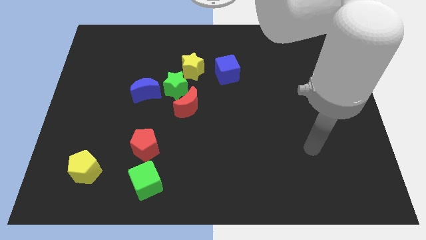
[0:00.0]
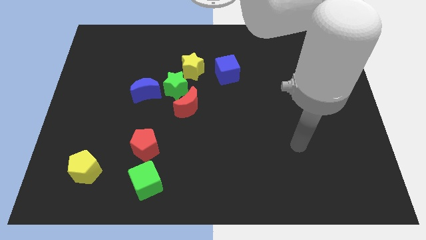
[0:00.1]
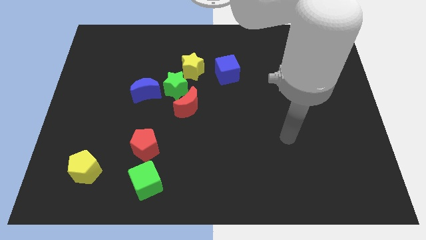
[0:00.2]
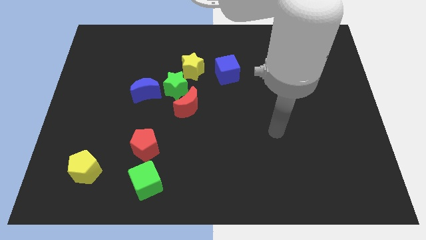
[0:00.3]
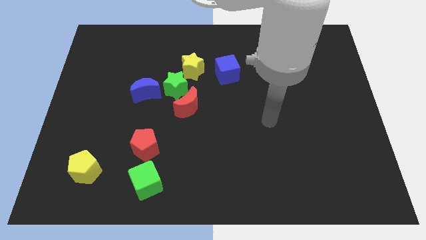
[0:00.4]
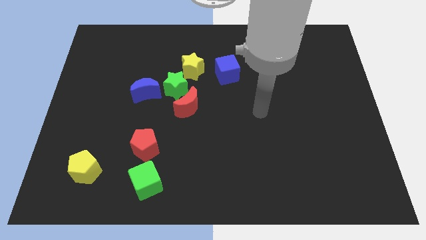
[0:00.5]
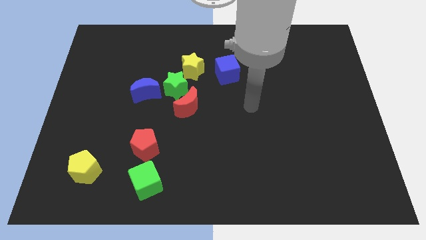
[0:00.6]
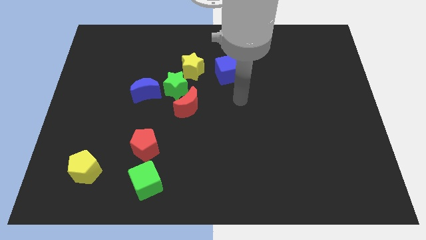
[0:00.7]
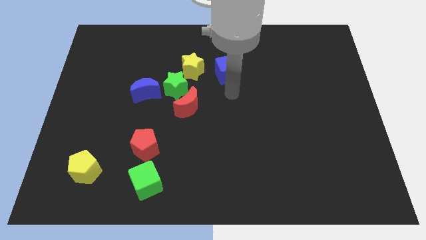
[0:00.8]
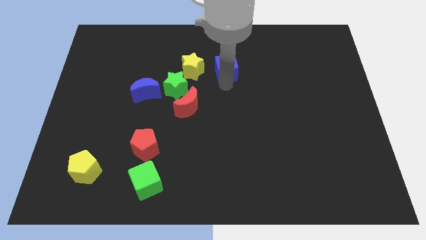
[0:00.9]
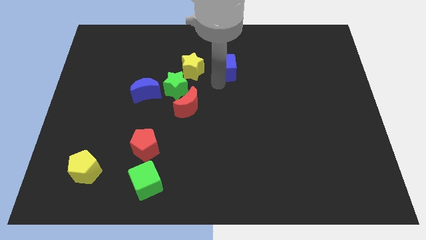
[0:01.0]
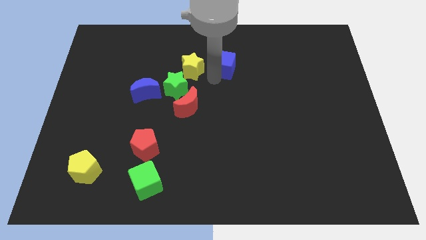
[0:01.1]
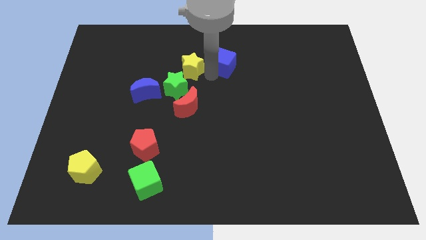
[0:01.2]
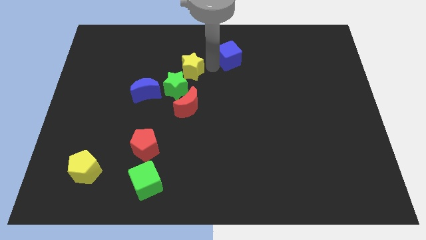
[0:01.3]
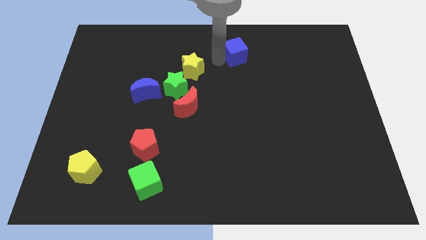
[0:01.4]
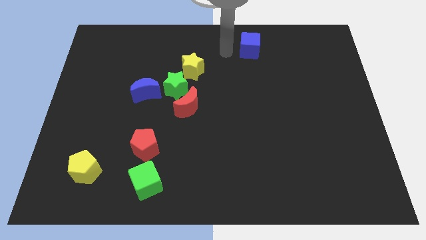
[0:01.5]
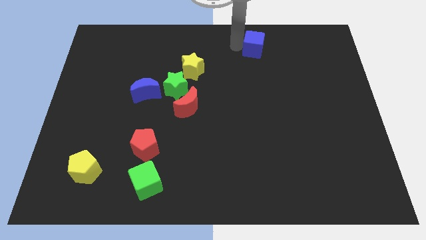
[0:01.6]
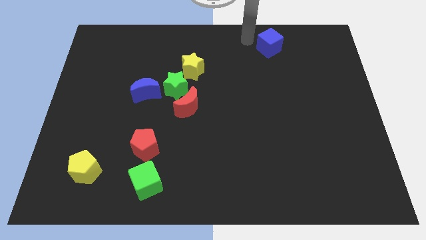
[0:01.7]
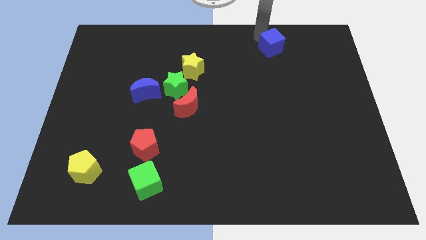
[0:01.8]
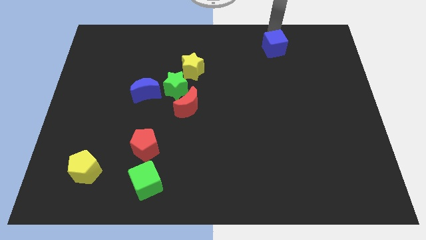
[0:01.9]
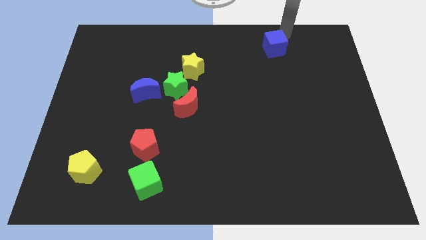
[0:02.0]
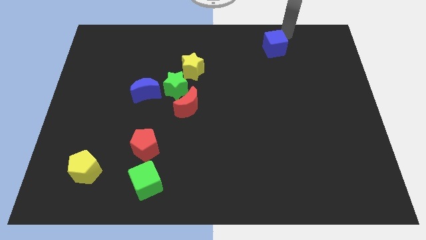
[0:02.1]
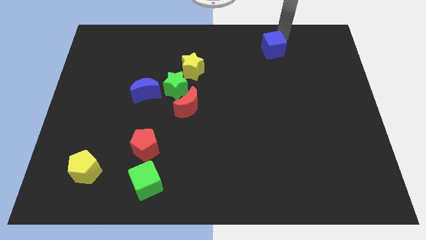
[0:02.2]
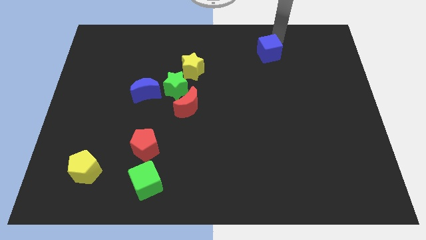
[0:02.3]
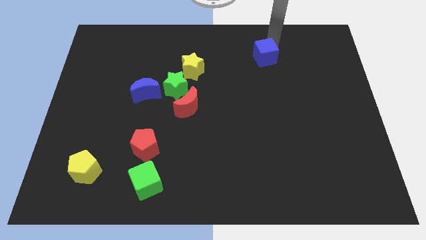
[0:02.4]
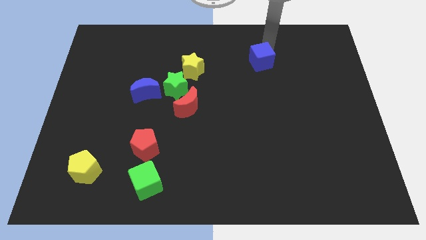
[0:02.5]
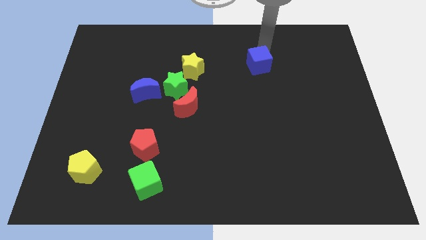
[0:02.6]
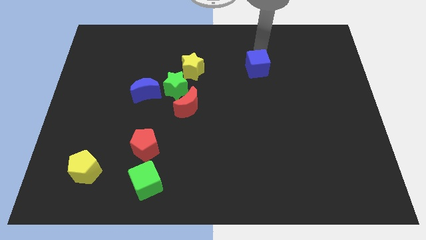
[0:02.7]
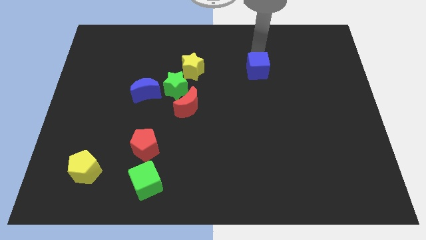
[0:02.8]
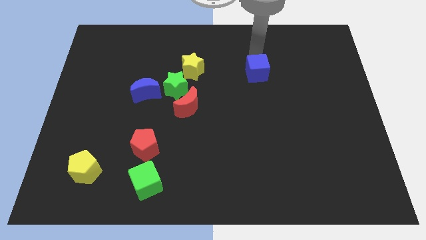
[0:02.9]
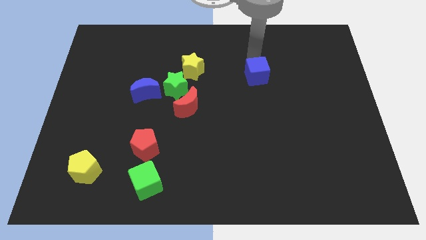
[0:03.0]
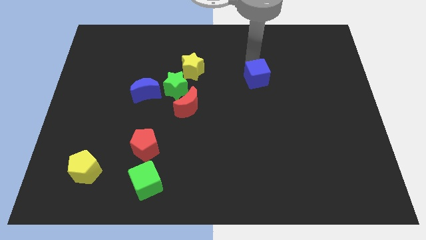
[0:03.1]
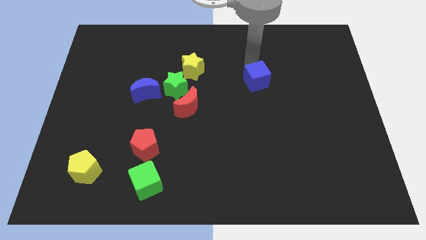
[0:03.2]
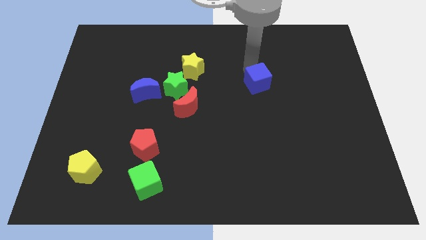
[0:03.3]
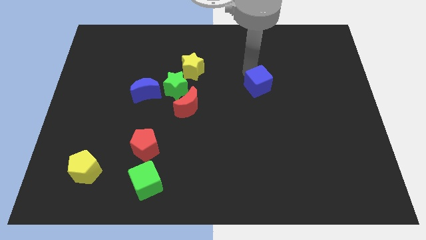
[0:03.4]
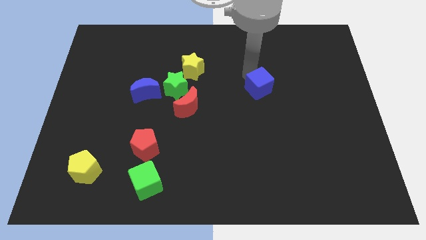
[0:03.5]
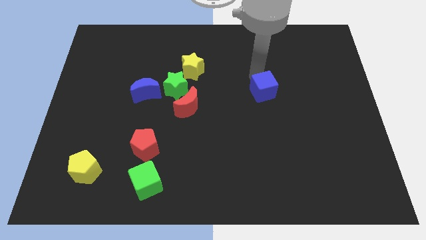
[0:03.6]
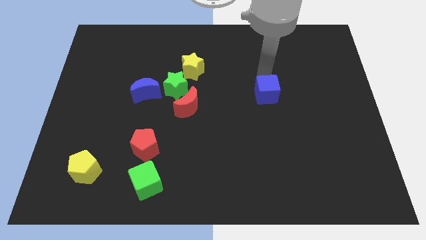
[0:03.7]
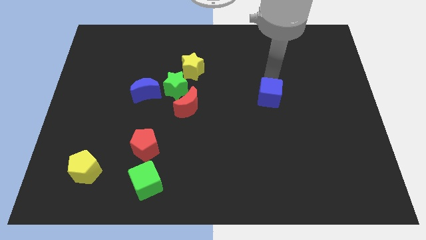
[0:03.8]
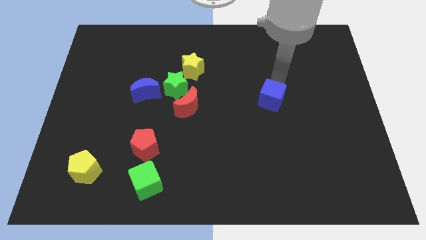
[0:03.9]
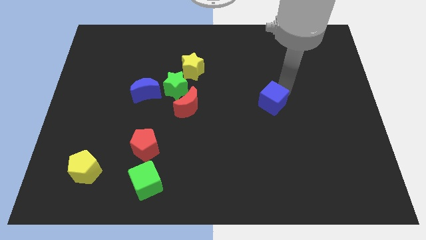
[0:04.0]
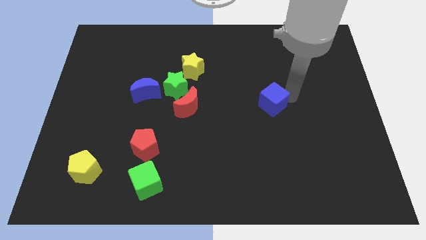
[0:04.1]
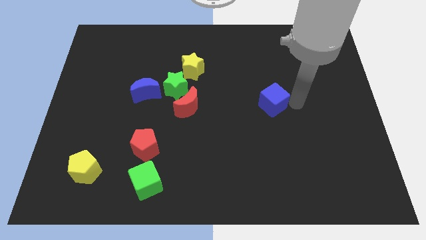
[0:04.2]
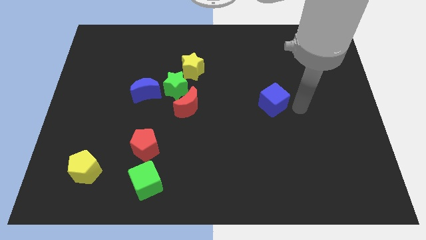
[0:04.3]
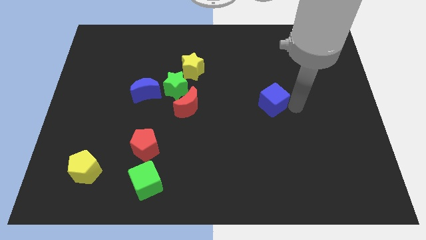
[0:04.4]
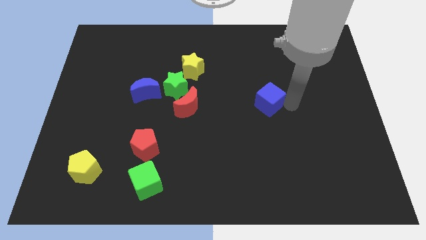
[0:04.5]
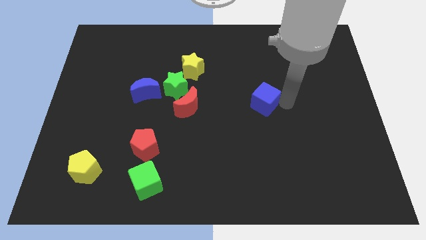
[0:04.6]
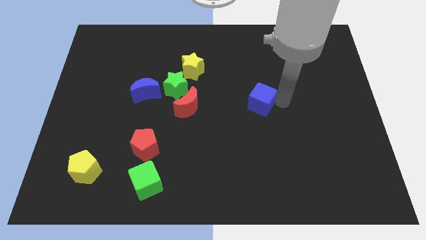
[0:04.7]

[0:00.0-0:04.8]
move the blue cube a little bit down

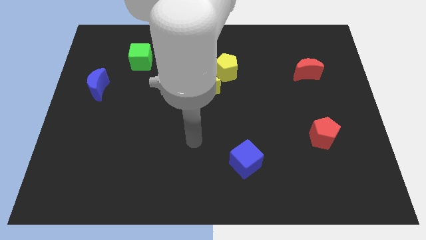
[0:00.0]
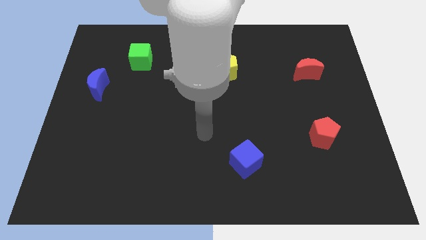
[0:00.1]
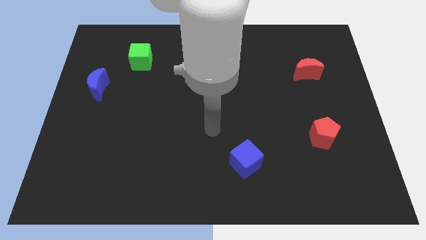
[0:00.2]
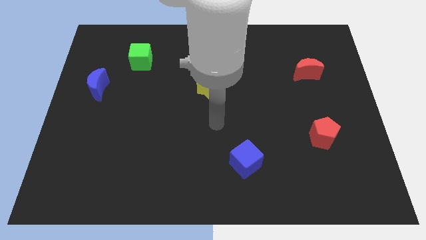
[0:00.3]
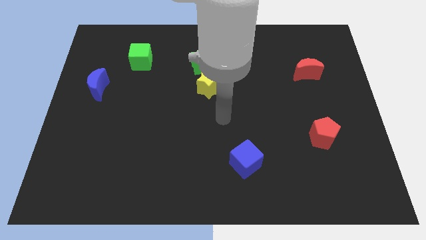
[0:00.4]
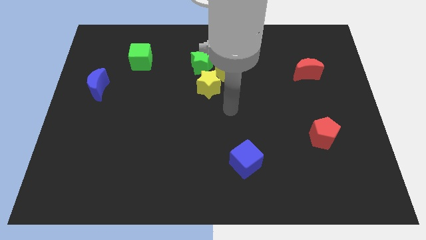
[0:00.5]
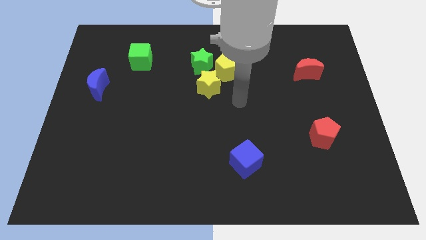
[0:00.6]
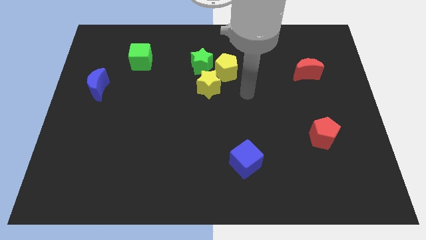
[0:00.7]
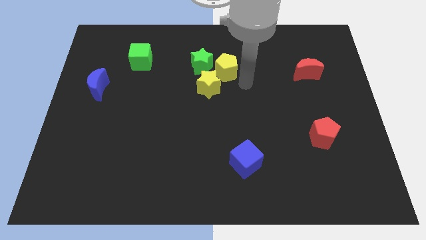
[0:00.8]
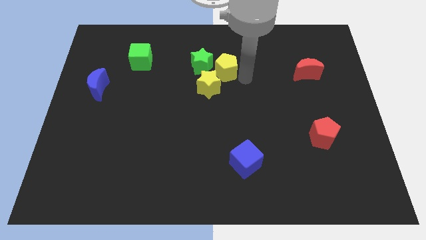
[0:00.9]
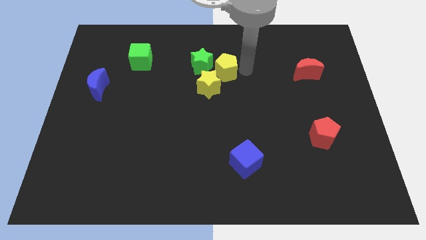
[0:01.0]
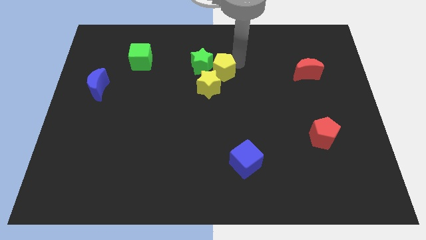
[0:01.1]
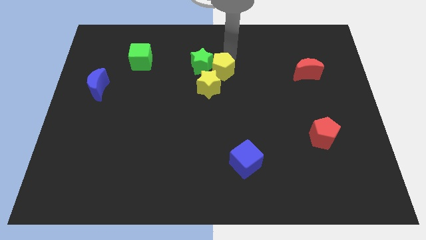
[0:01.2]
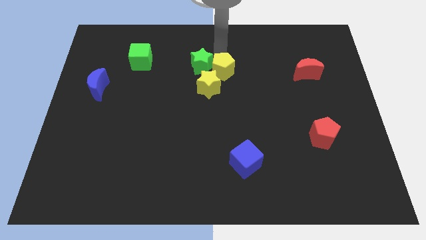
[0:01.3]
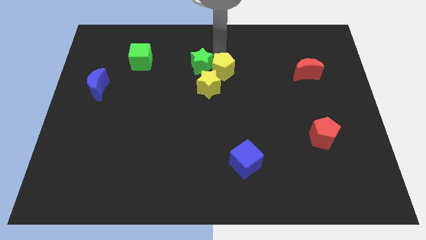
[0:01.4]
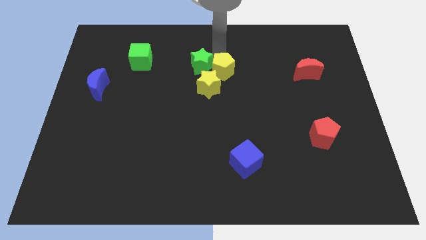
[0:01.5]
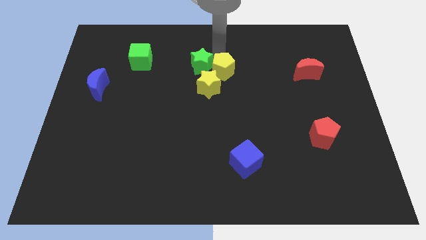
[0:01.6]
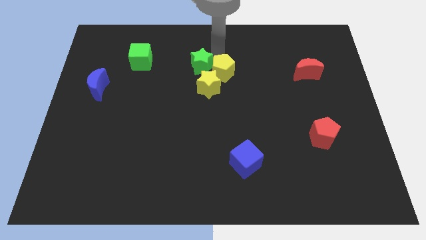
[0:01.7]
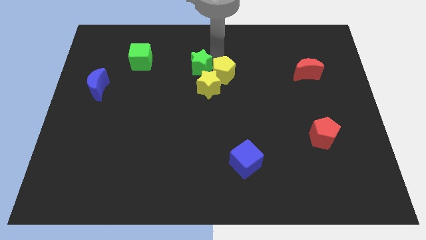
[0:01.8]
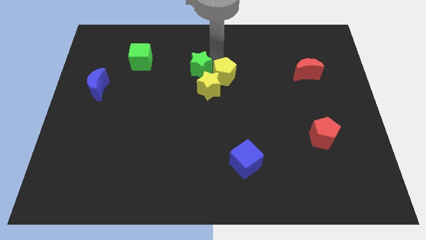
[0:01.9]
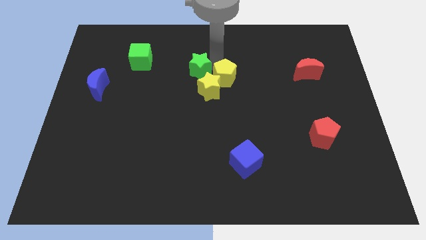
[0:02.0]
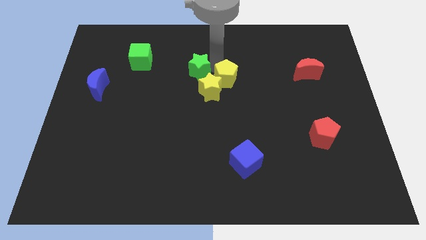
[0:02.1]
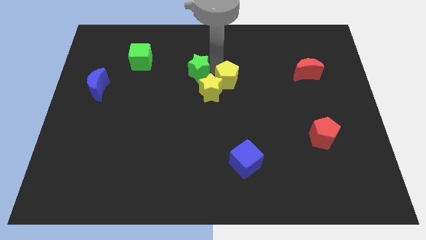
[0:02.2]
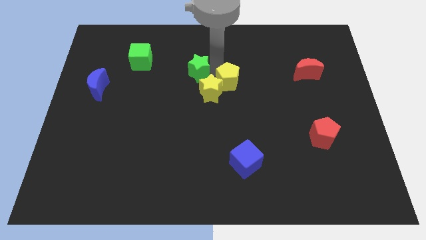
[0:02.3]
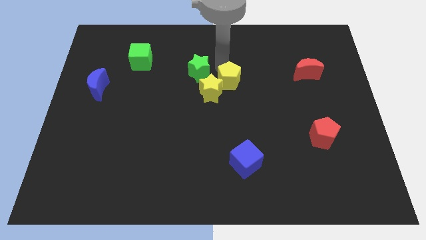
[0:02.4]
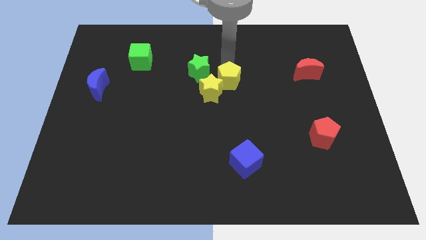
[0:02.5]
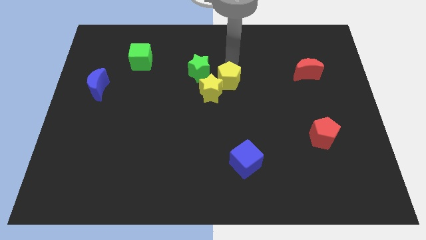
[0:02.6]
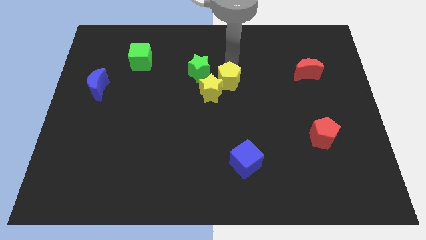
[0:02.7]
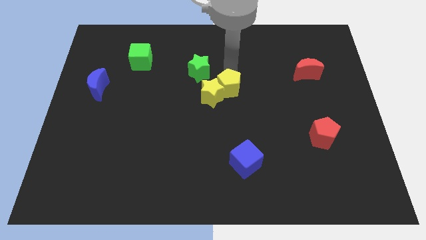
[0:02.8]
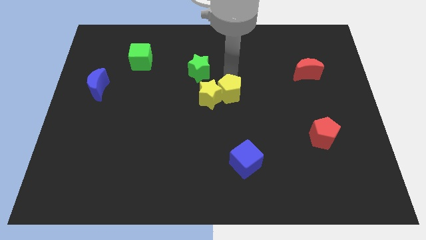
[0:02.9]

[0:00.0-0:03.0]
slightly move the yellow pentagon downwards

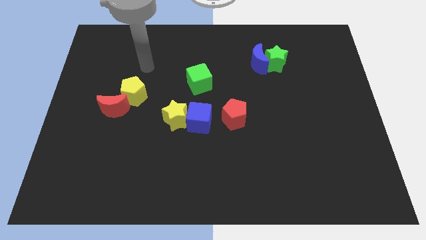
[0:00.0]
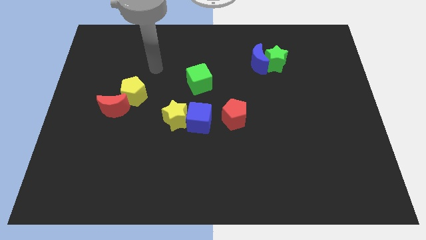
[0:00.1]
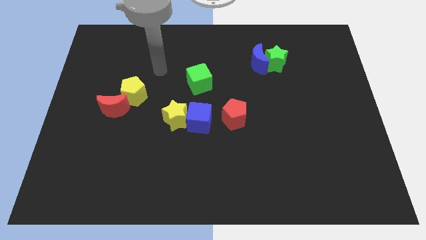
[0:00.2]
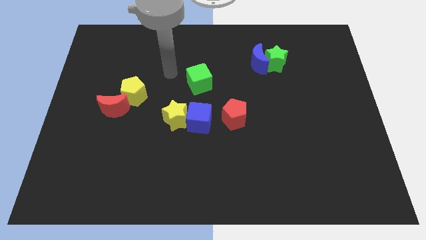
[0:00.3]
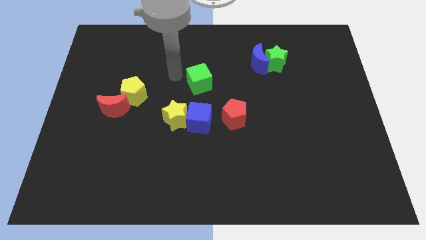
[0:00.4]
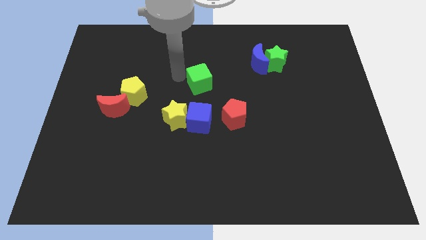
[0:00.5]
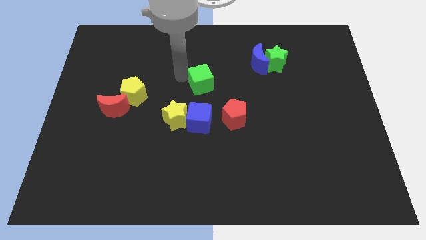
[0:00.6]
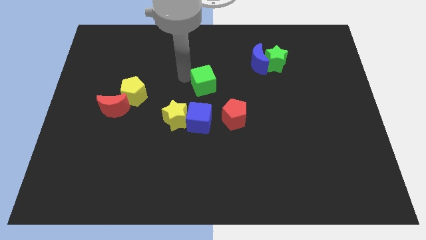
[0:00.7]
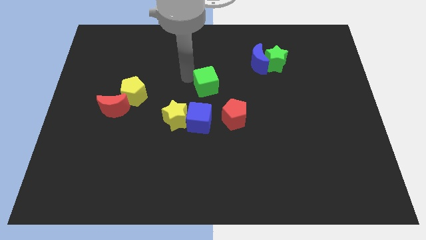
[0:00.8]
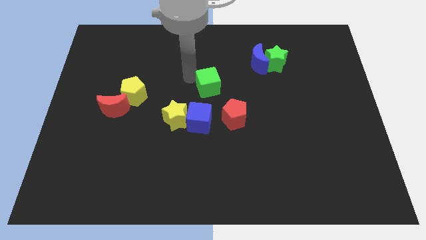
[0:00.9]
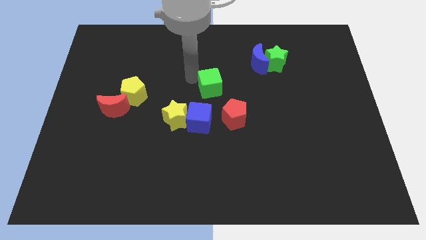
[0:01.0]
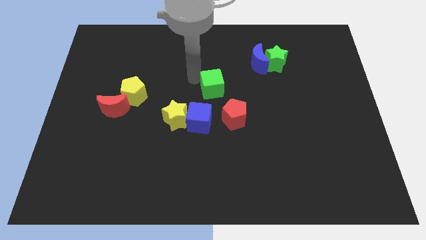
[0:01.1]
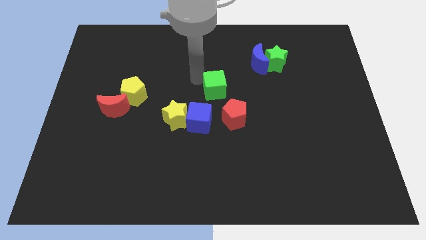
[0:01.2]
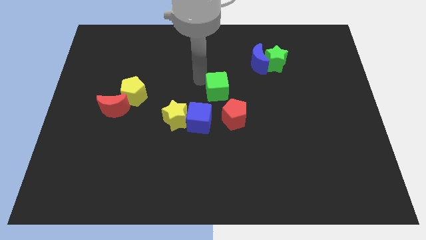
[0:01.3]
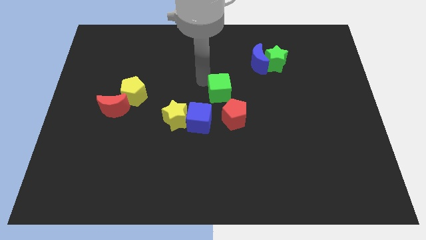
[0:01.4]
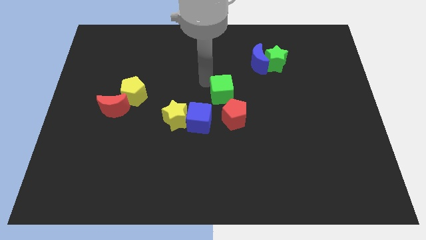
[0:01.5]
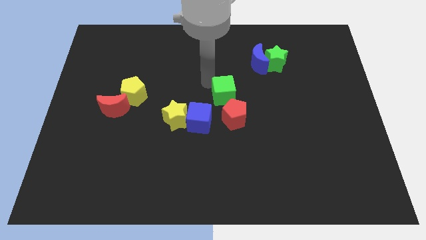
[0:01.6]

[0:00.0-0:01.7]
push the green cube slightly diagonally down and right
